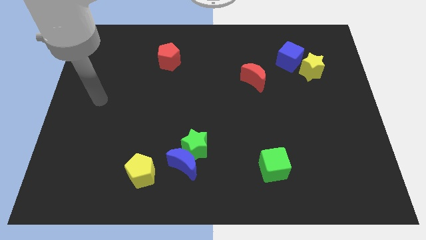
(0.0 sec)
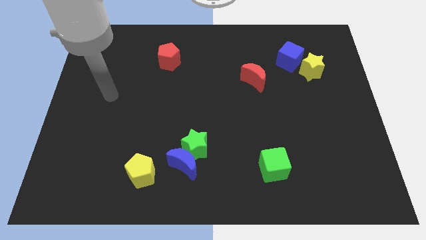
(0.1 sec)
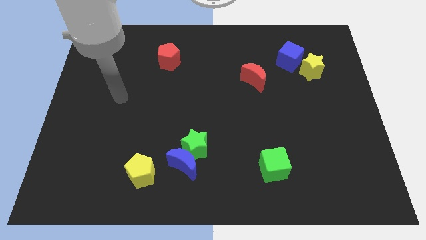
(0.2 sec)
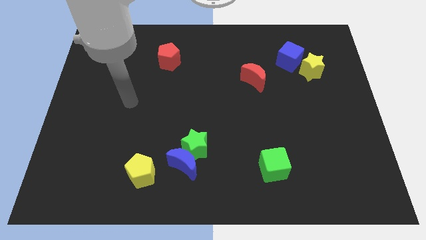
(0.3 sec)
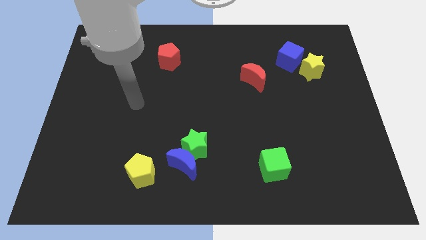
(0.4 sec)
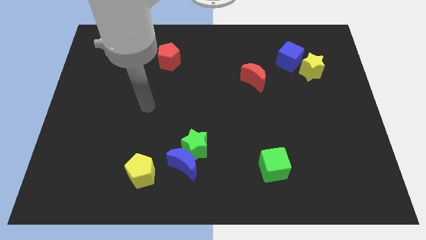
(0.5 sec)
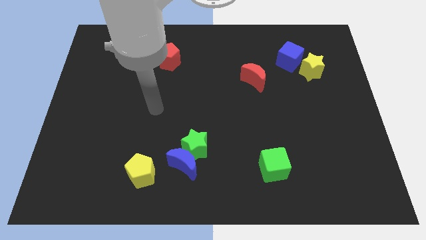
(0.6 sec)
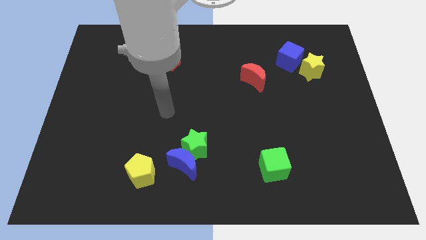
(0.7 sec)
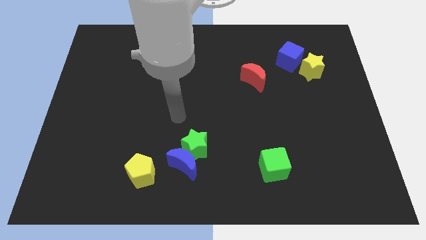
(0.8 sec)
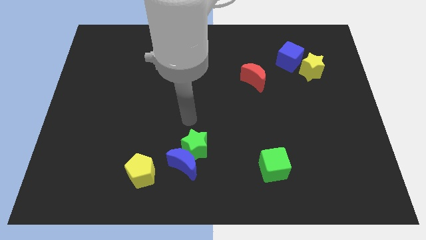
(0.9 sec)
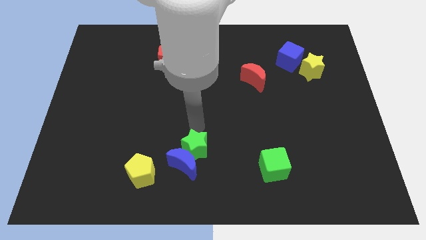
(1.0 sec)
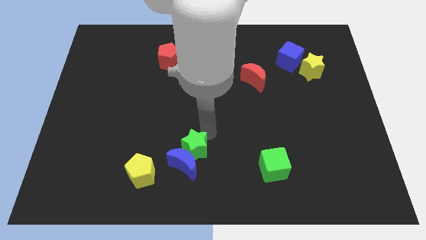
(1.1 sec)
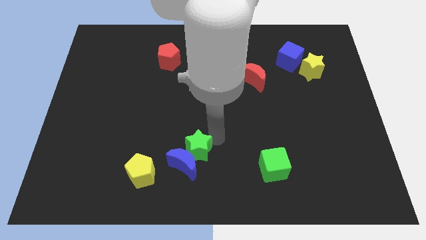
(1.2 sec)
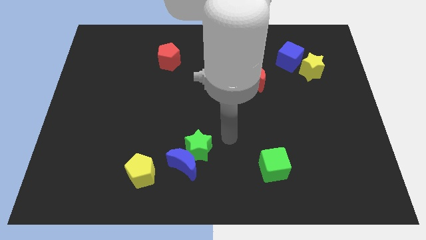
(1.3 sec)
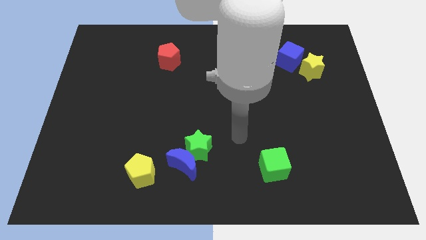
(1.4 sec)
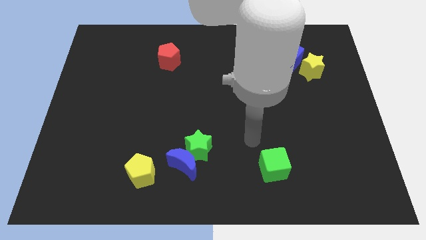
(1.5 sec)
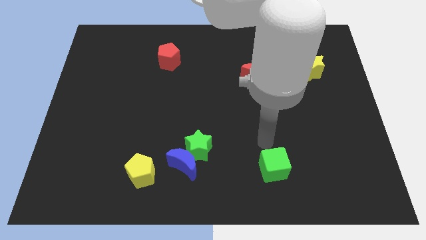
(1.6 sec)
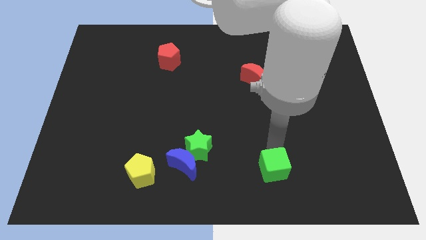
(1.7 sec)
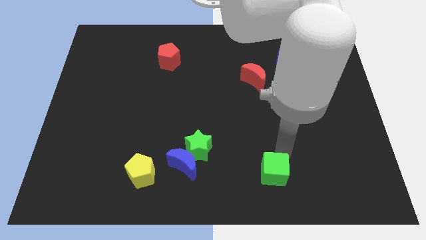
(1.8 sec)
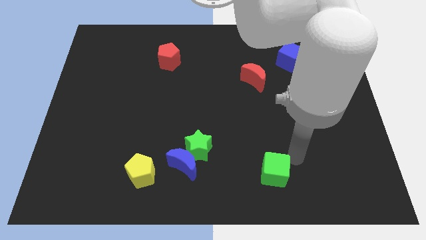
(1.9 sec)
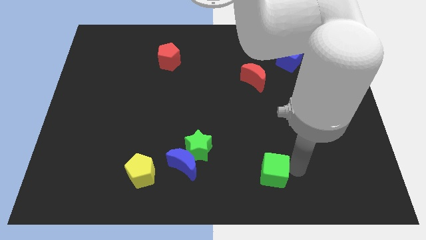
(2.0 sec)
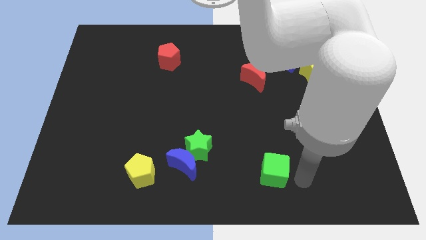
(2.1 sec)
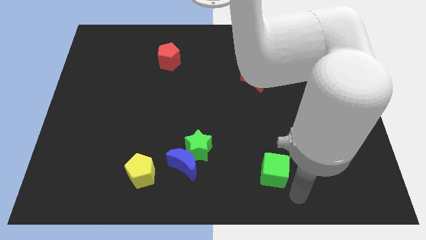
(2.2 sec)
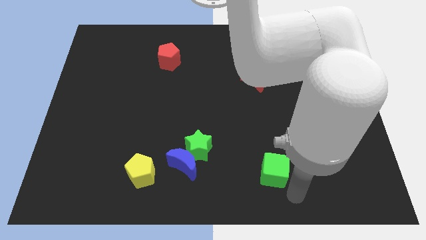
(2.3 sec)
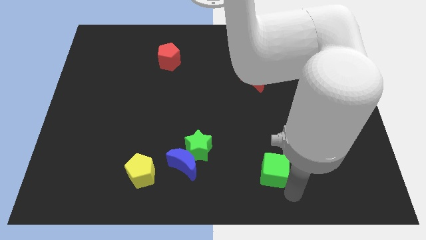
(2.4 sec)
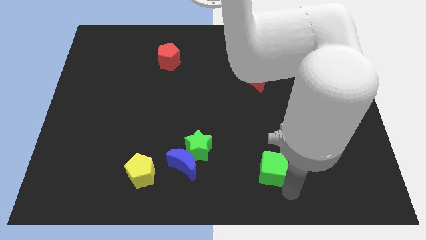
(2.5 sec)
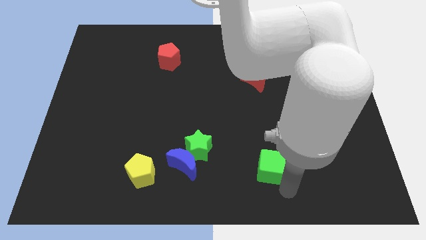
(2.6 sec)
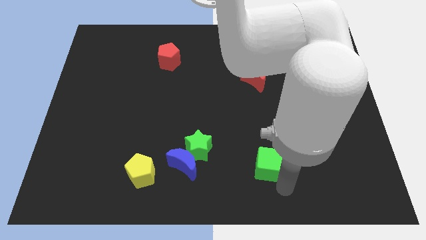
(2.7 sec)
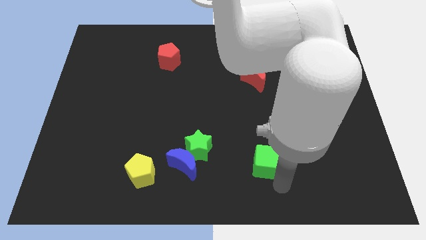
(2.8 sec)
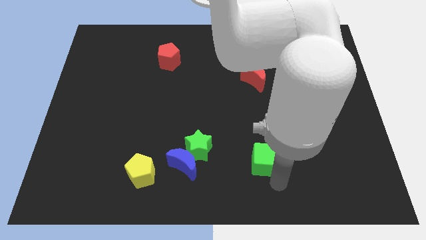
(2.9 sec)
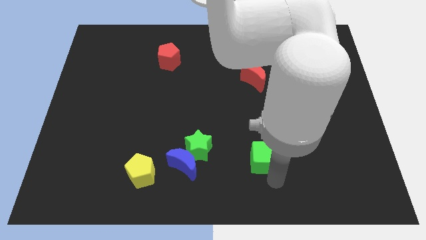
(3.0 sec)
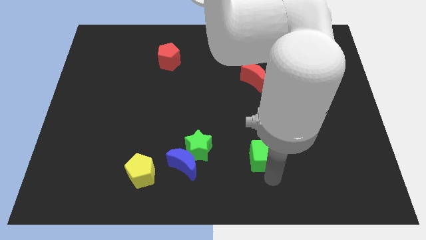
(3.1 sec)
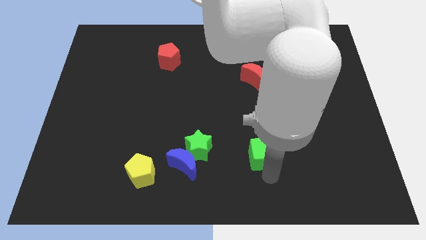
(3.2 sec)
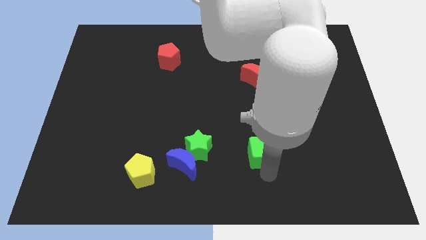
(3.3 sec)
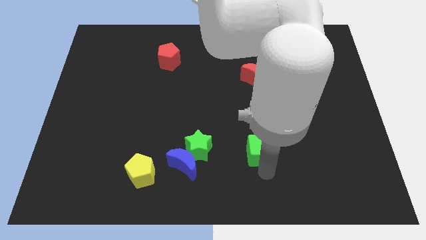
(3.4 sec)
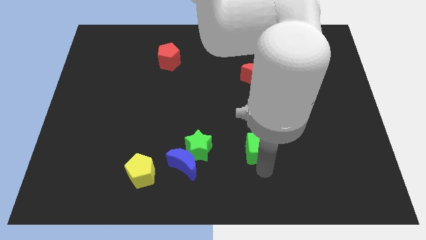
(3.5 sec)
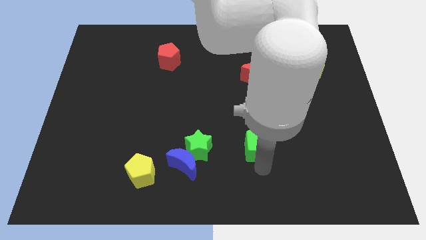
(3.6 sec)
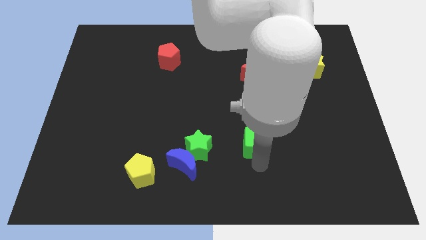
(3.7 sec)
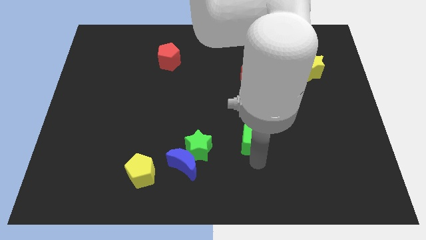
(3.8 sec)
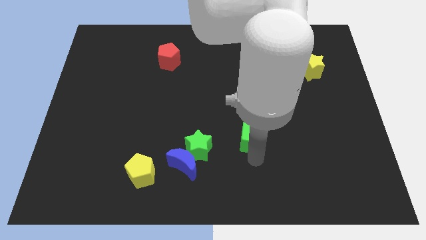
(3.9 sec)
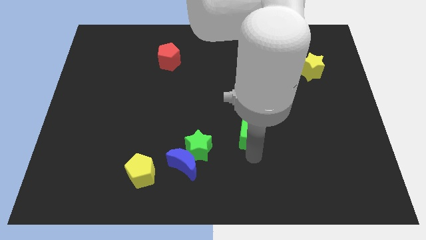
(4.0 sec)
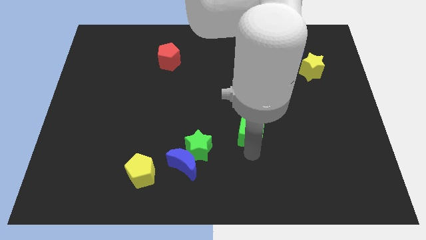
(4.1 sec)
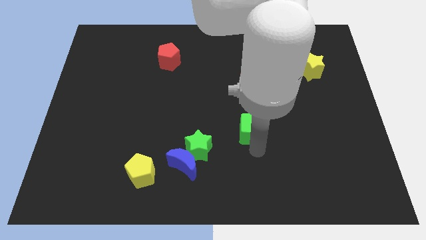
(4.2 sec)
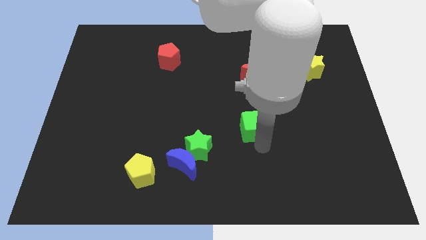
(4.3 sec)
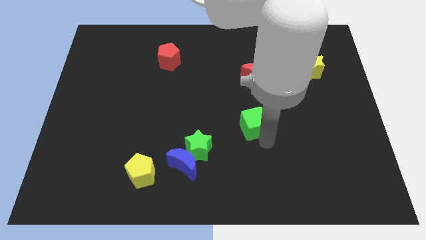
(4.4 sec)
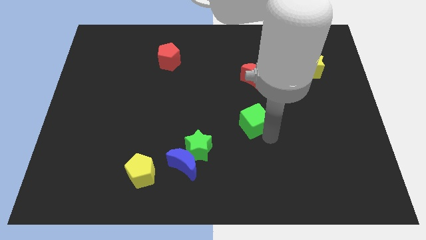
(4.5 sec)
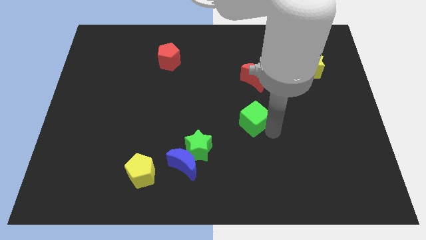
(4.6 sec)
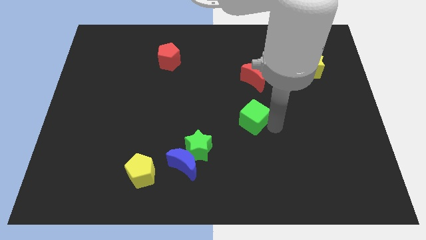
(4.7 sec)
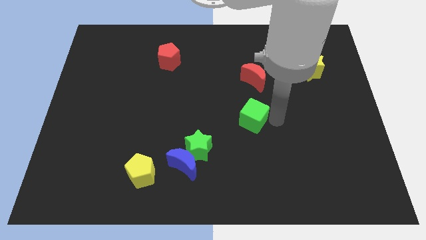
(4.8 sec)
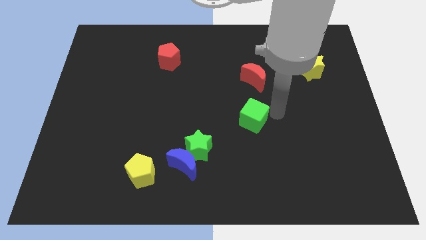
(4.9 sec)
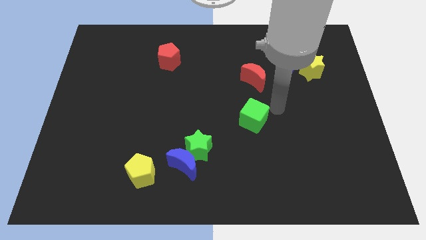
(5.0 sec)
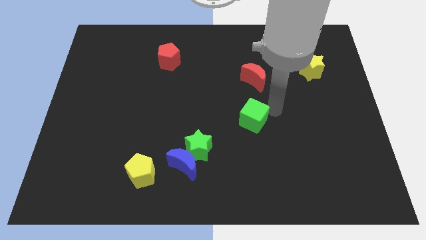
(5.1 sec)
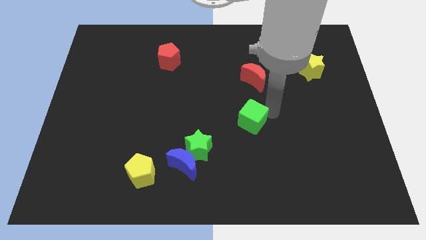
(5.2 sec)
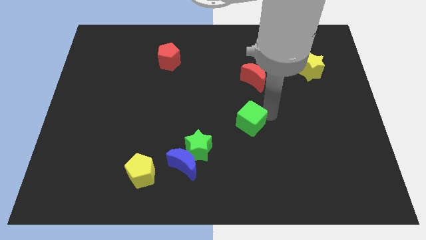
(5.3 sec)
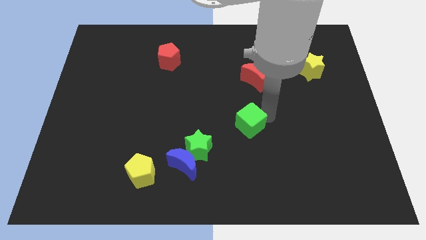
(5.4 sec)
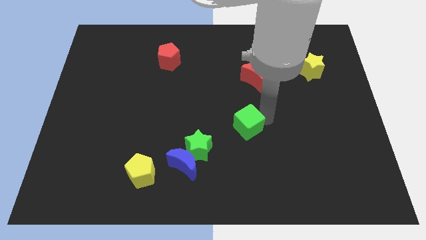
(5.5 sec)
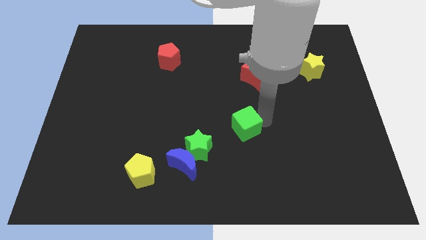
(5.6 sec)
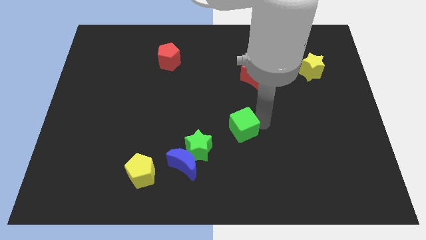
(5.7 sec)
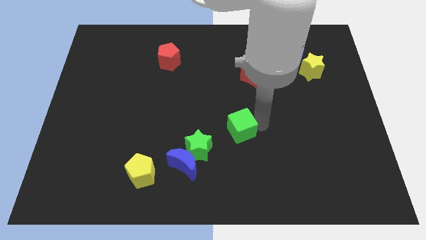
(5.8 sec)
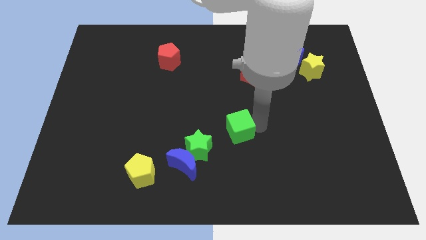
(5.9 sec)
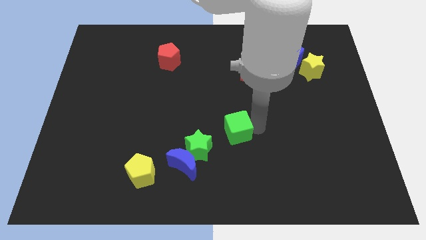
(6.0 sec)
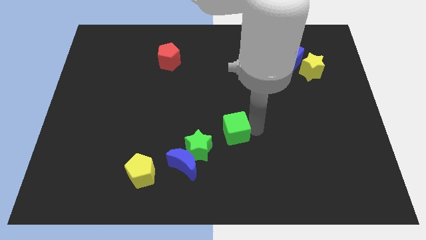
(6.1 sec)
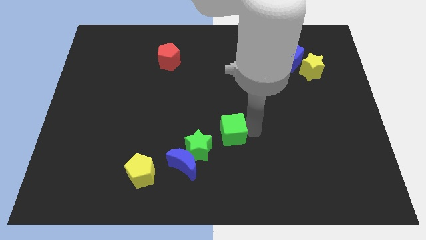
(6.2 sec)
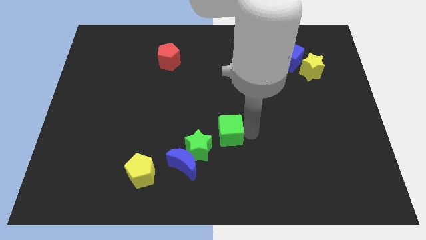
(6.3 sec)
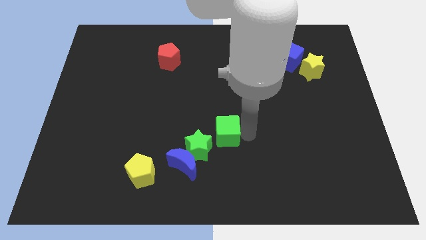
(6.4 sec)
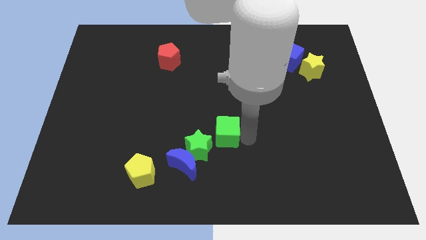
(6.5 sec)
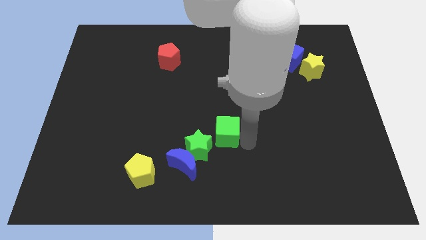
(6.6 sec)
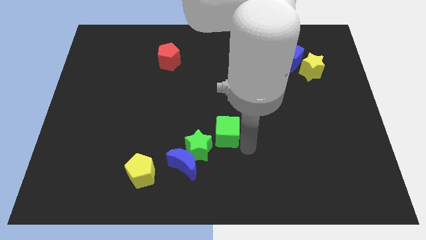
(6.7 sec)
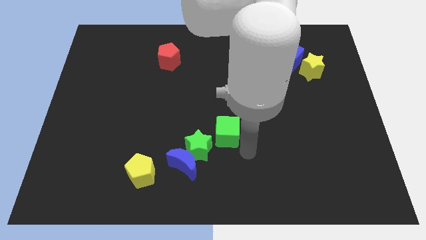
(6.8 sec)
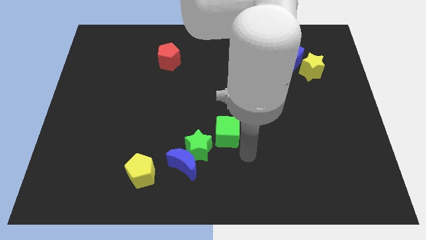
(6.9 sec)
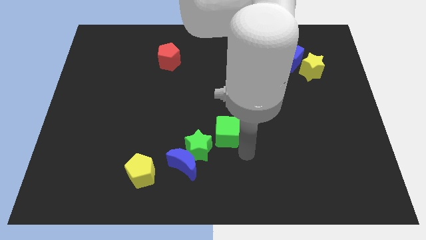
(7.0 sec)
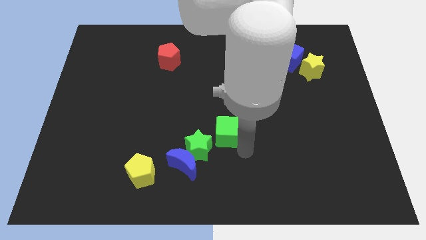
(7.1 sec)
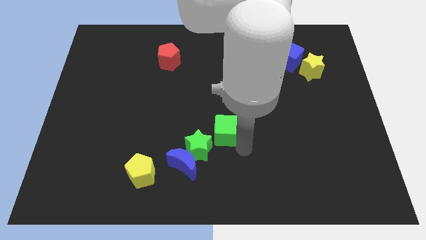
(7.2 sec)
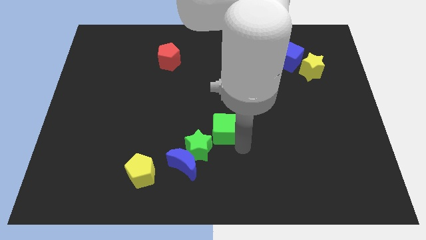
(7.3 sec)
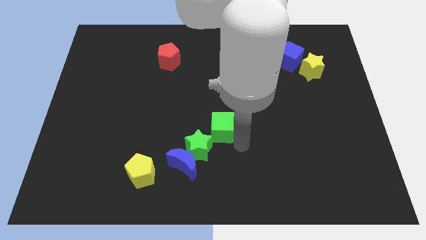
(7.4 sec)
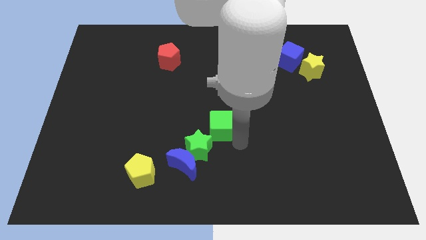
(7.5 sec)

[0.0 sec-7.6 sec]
push the green cube above the green star
